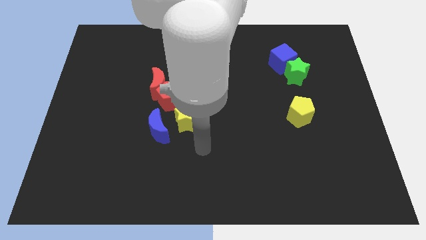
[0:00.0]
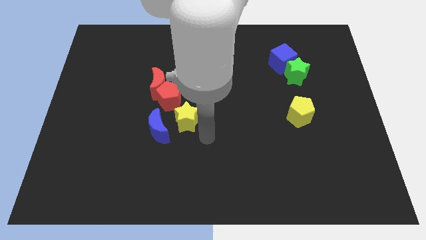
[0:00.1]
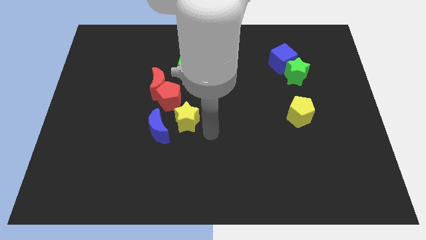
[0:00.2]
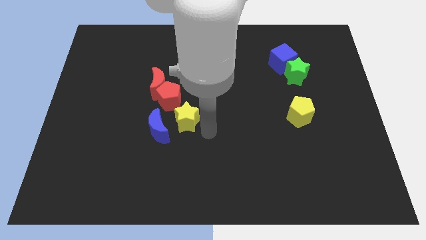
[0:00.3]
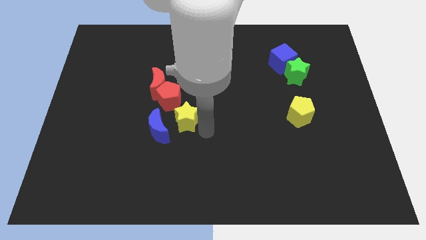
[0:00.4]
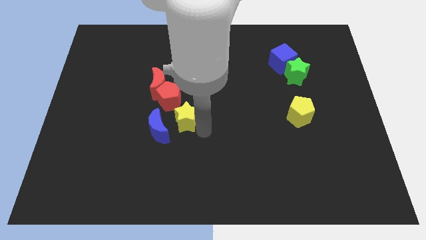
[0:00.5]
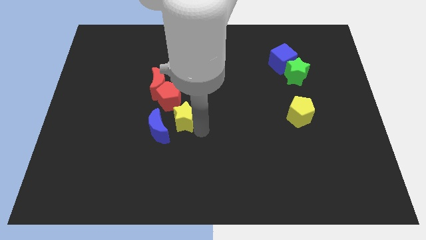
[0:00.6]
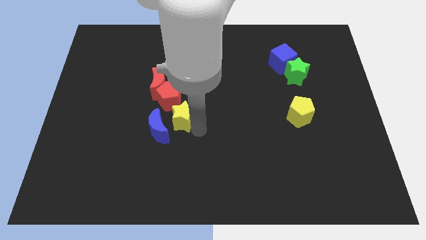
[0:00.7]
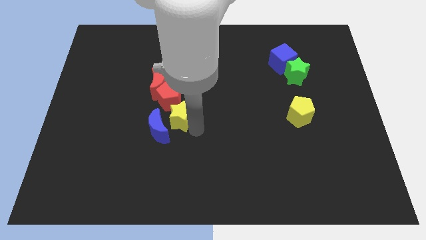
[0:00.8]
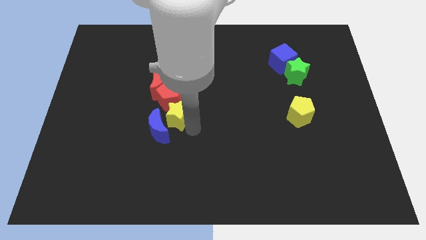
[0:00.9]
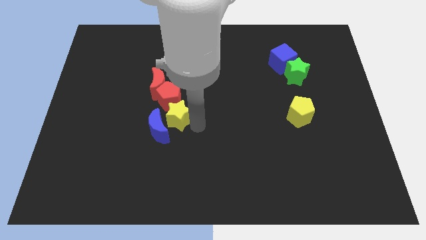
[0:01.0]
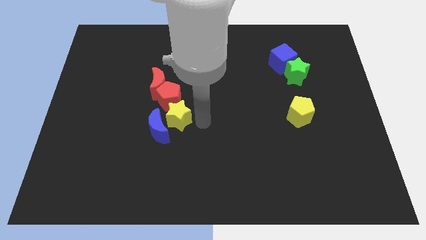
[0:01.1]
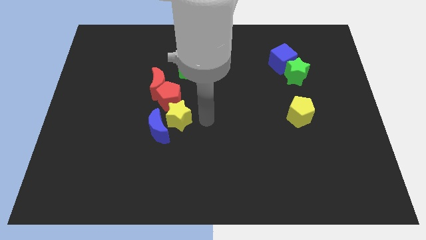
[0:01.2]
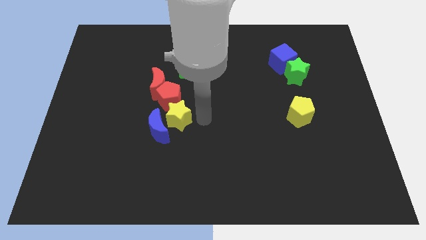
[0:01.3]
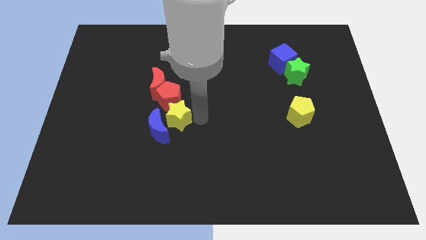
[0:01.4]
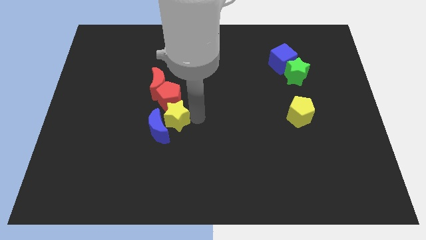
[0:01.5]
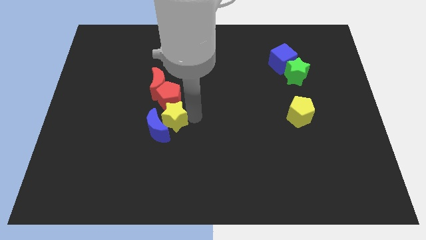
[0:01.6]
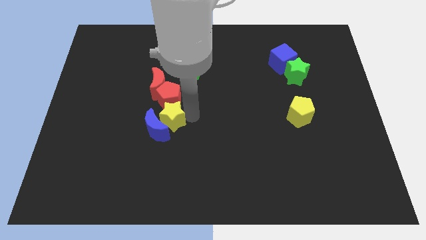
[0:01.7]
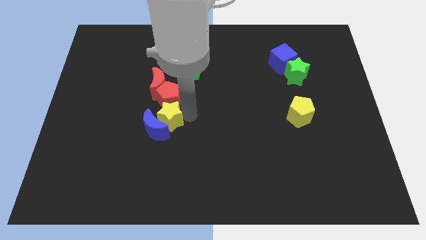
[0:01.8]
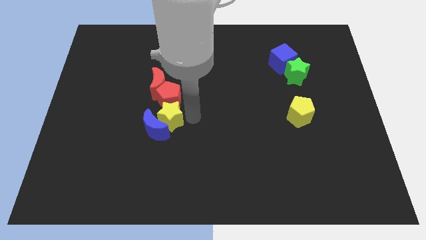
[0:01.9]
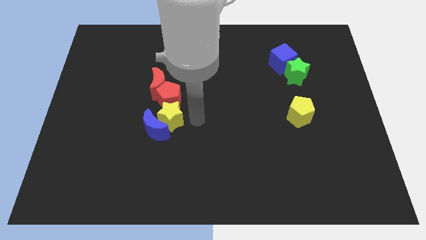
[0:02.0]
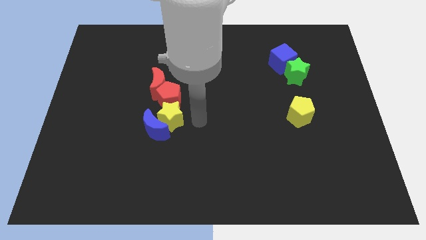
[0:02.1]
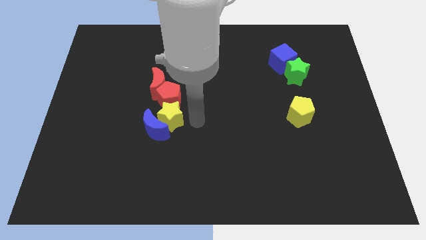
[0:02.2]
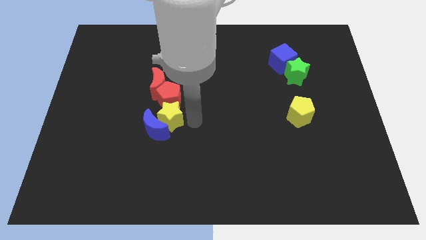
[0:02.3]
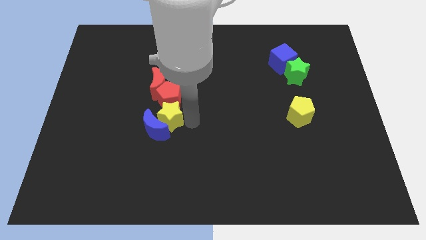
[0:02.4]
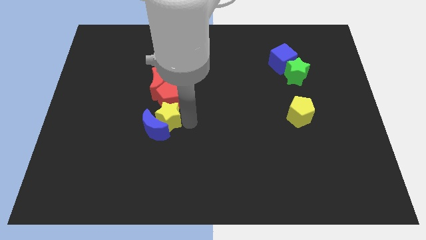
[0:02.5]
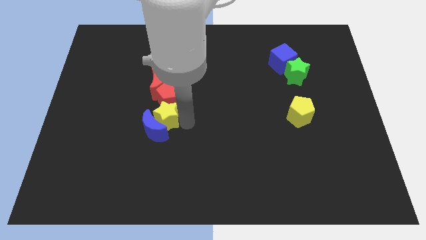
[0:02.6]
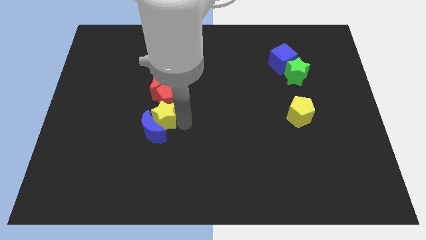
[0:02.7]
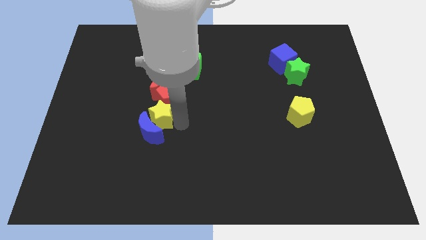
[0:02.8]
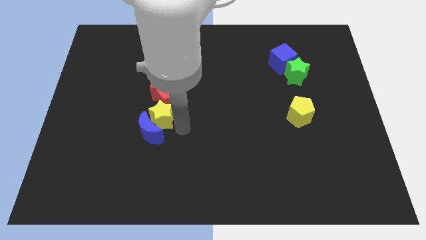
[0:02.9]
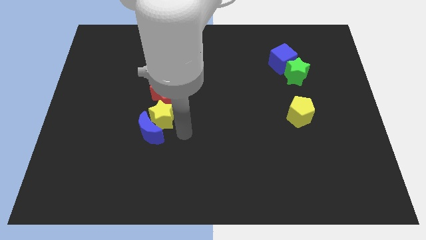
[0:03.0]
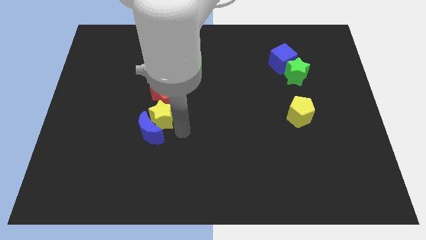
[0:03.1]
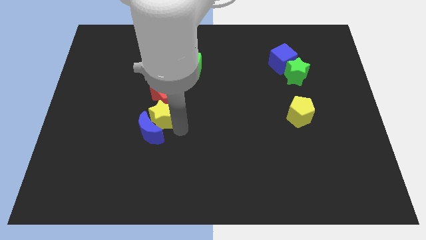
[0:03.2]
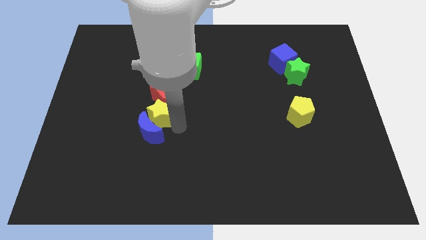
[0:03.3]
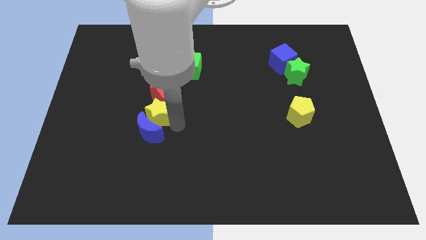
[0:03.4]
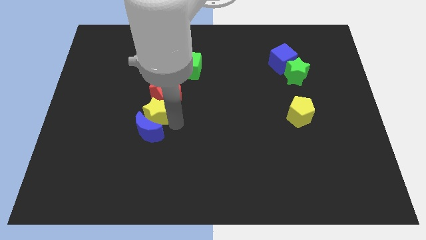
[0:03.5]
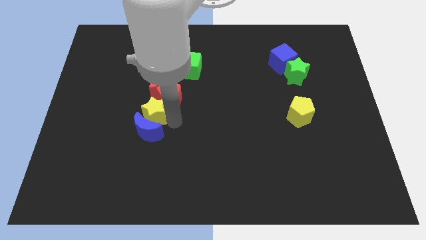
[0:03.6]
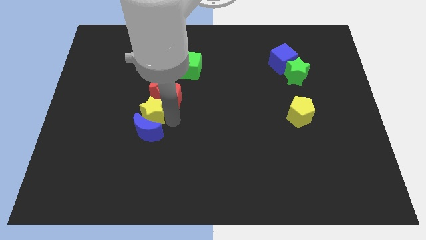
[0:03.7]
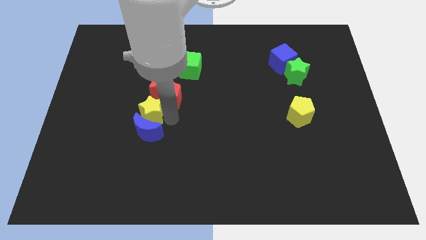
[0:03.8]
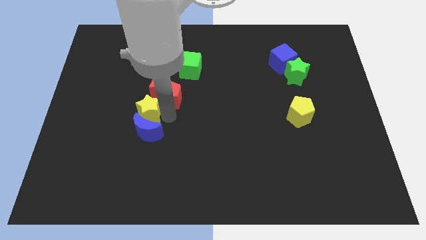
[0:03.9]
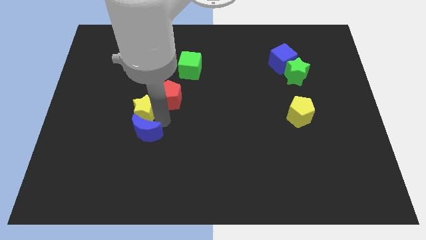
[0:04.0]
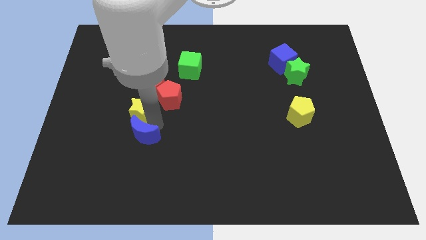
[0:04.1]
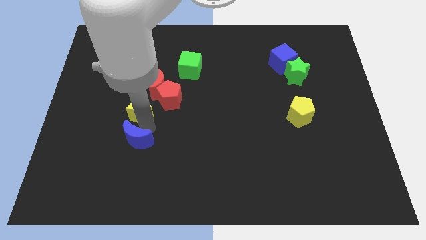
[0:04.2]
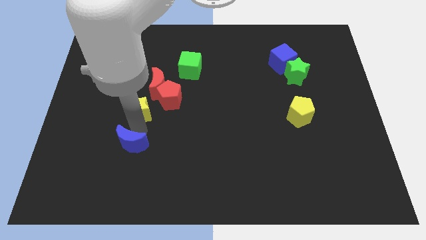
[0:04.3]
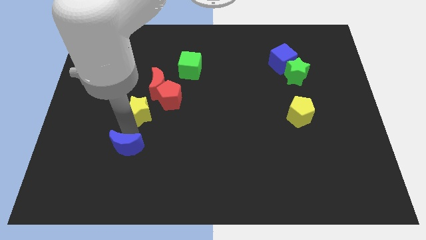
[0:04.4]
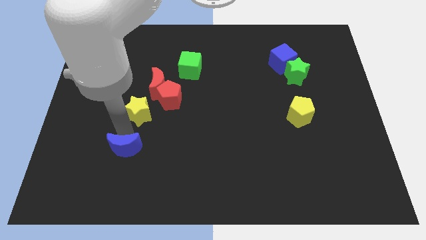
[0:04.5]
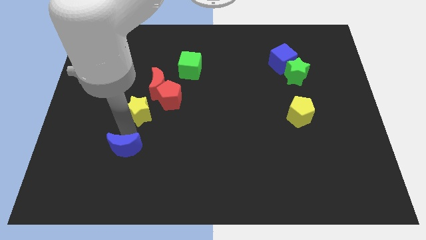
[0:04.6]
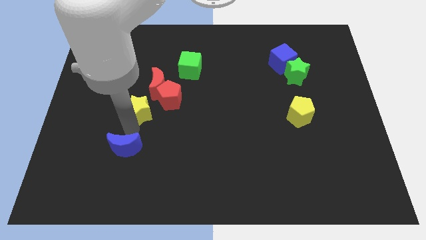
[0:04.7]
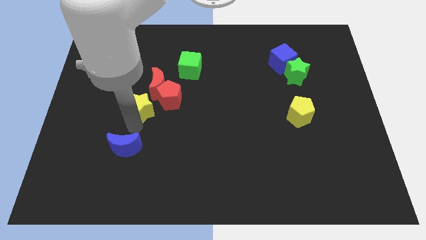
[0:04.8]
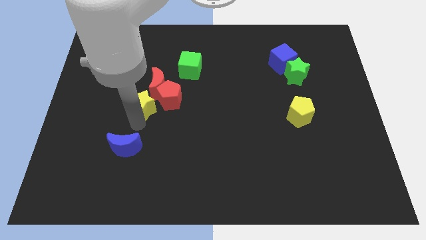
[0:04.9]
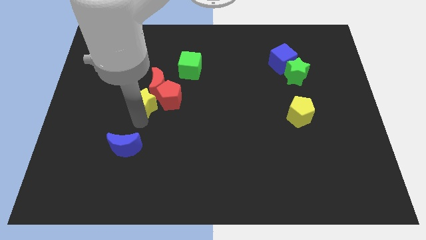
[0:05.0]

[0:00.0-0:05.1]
move the yellow star towards the red moon

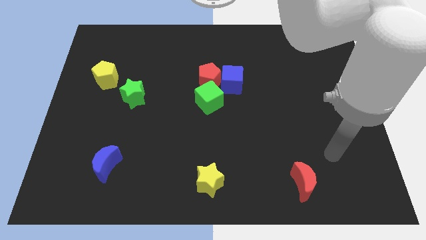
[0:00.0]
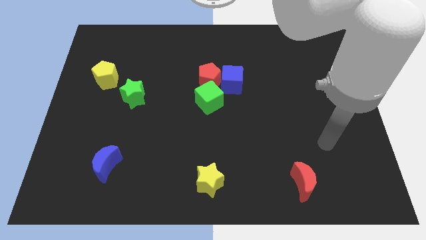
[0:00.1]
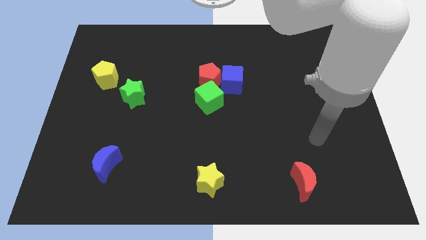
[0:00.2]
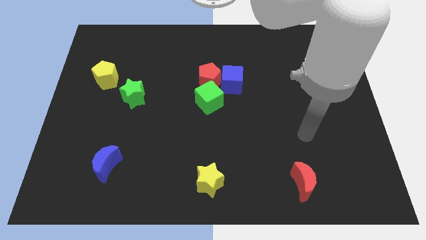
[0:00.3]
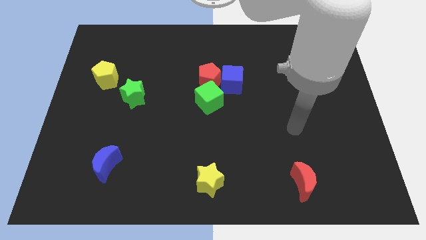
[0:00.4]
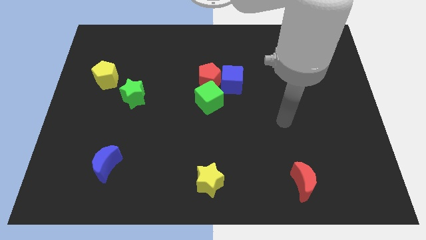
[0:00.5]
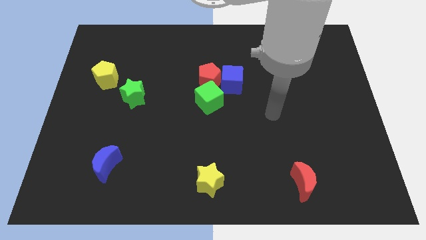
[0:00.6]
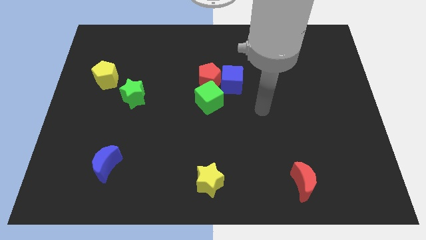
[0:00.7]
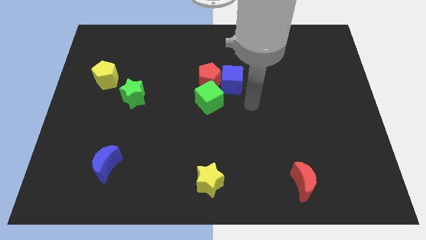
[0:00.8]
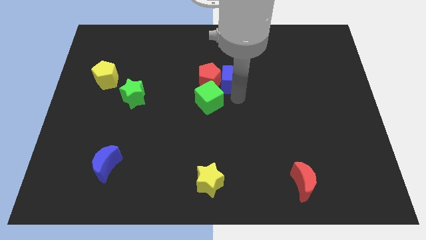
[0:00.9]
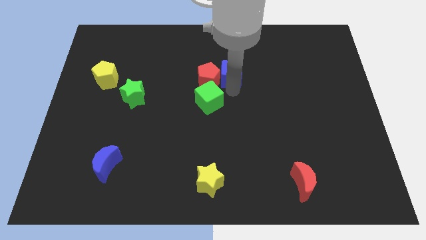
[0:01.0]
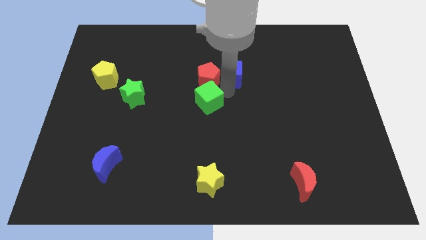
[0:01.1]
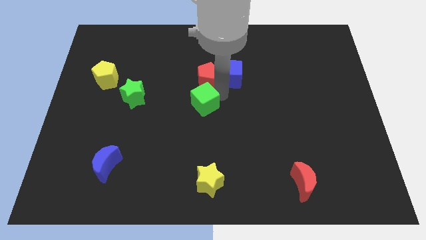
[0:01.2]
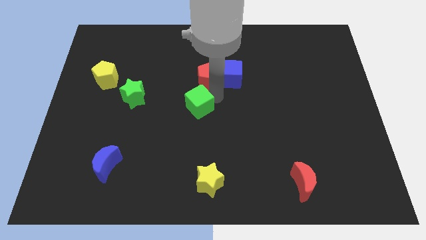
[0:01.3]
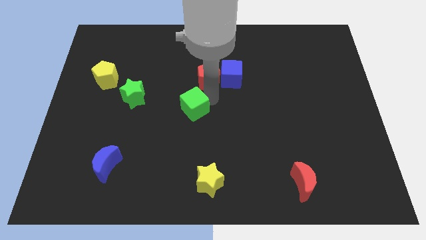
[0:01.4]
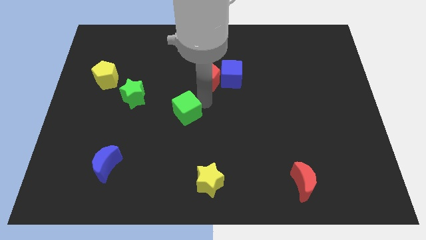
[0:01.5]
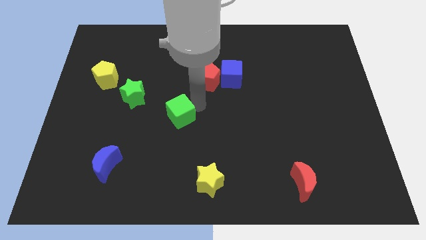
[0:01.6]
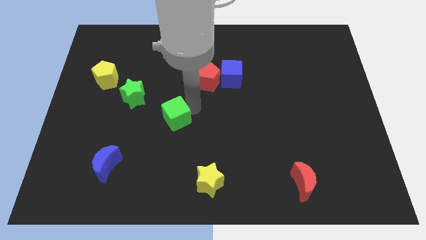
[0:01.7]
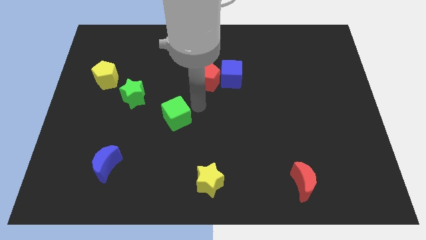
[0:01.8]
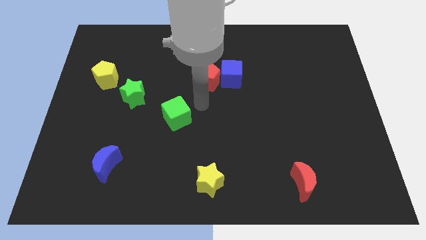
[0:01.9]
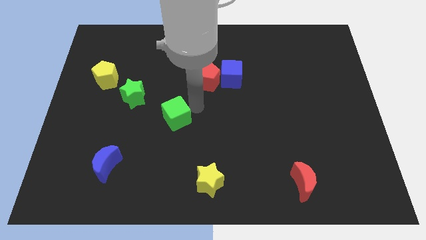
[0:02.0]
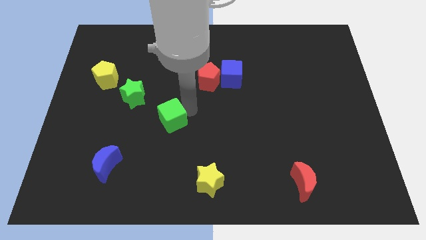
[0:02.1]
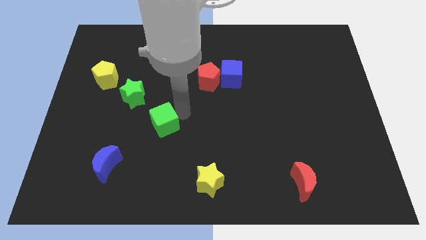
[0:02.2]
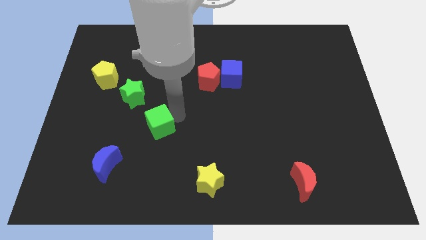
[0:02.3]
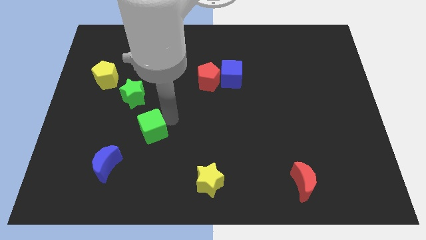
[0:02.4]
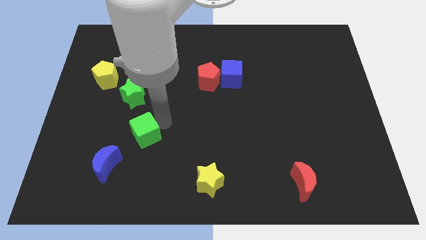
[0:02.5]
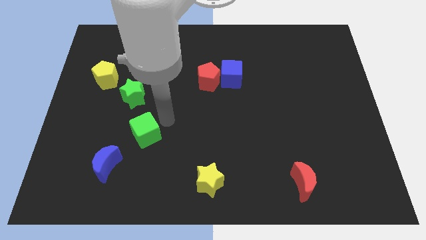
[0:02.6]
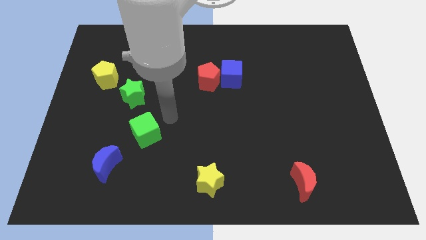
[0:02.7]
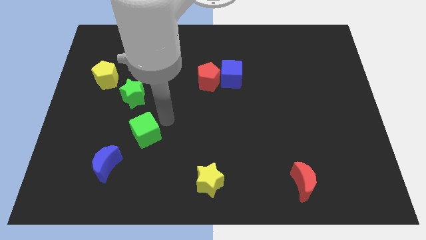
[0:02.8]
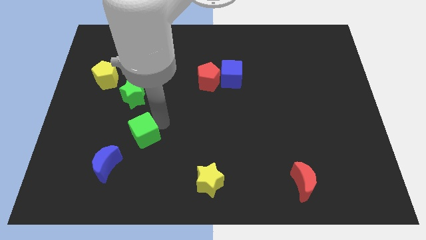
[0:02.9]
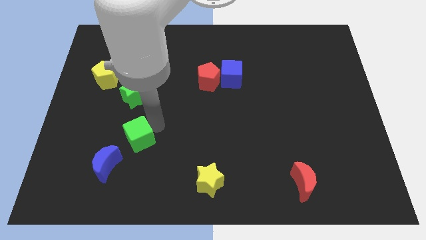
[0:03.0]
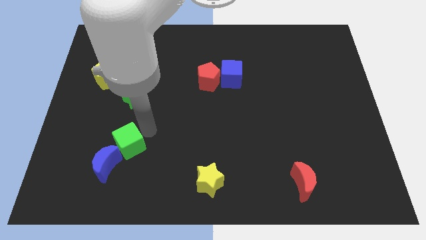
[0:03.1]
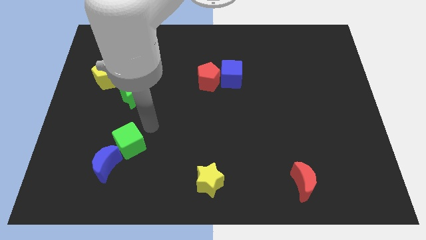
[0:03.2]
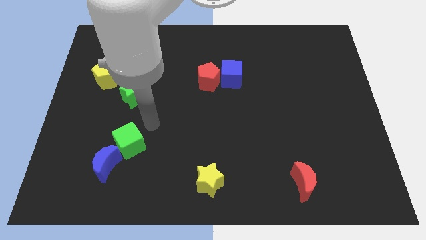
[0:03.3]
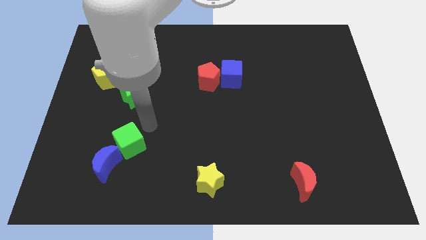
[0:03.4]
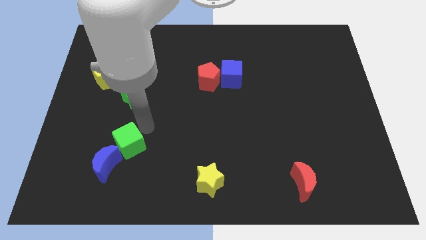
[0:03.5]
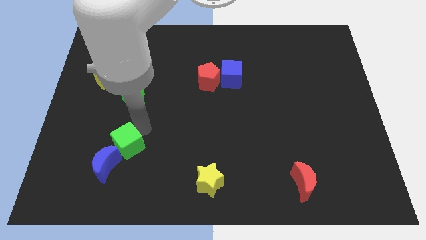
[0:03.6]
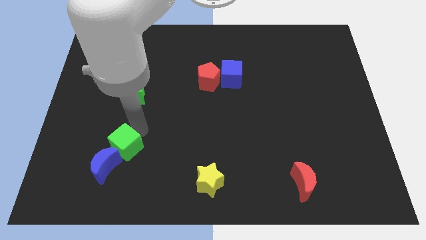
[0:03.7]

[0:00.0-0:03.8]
slide the green cube close to the blue moon
